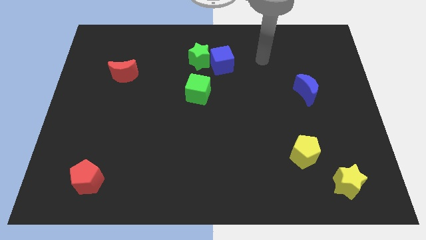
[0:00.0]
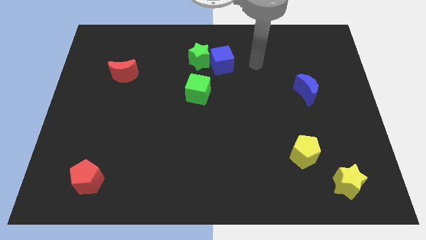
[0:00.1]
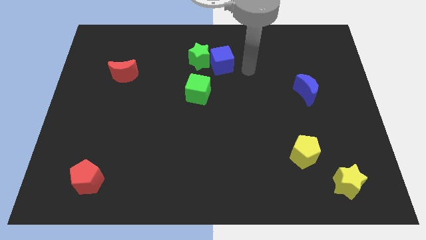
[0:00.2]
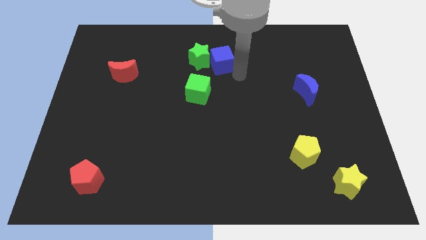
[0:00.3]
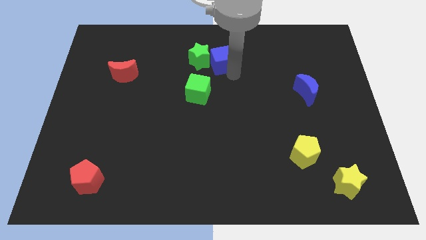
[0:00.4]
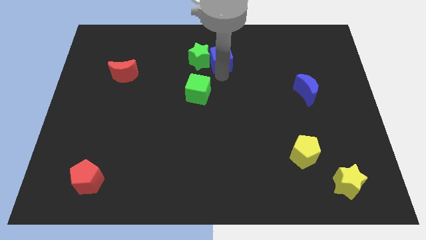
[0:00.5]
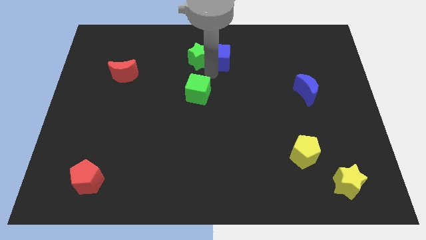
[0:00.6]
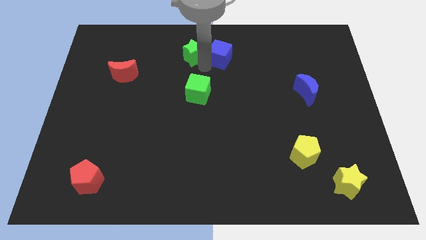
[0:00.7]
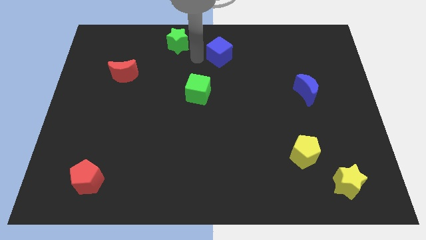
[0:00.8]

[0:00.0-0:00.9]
pull the blue cube apart from the green star

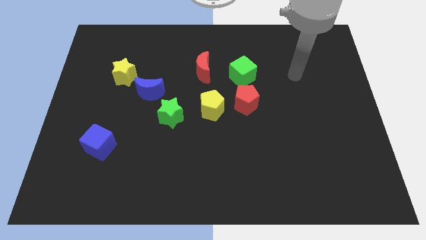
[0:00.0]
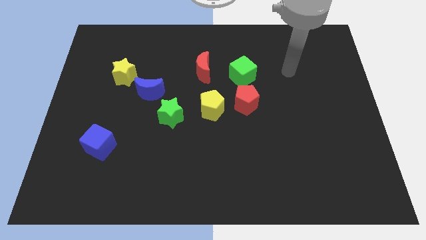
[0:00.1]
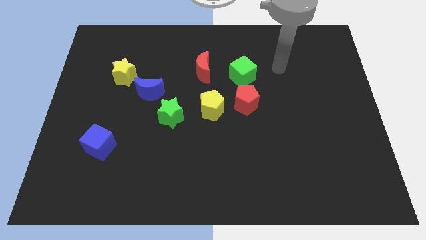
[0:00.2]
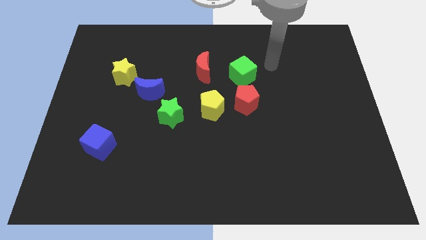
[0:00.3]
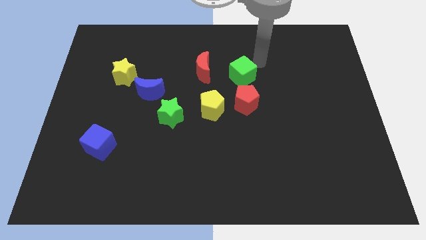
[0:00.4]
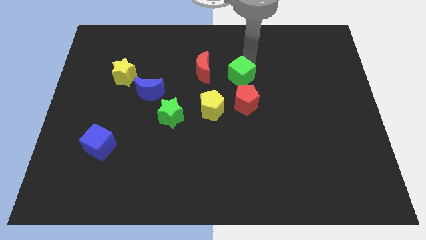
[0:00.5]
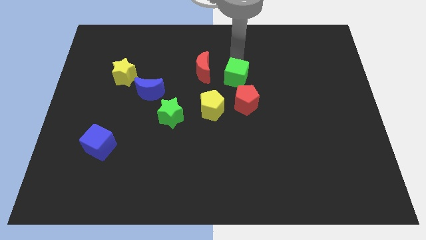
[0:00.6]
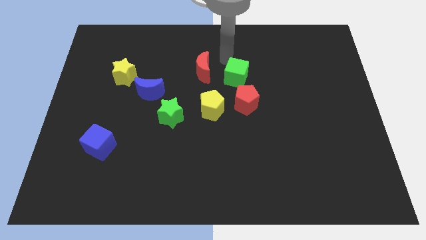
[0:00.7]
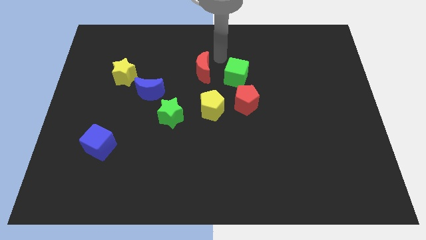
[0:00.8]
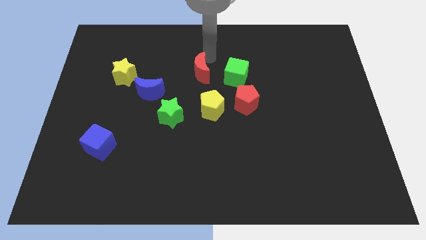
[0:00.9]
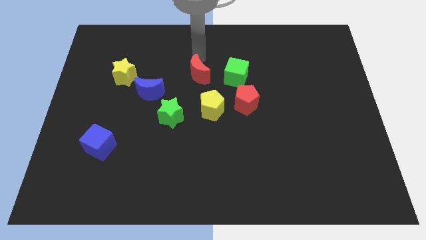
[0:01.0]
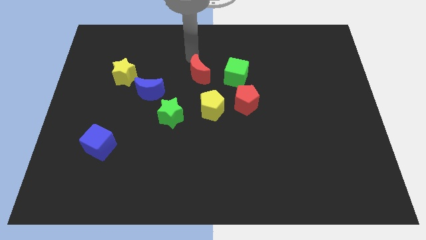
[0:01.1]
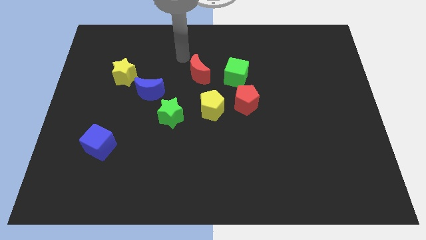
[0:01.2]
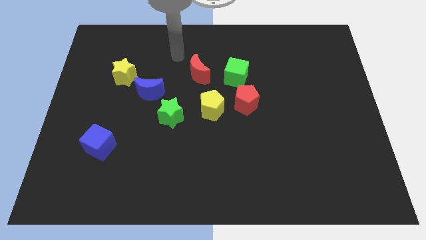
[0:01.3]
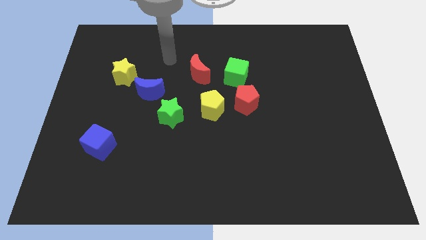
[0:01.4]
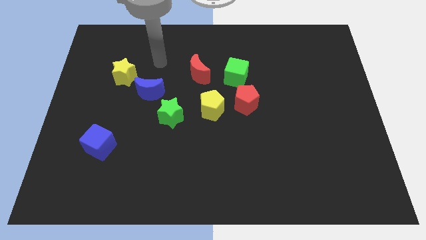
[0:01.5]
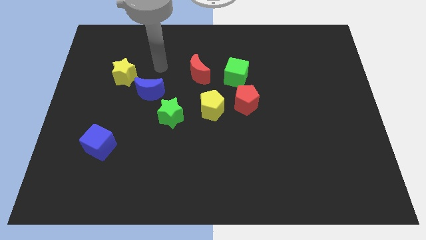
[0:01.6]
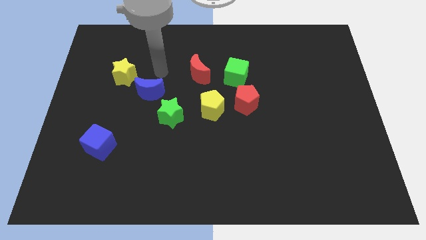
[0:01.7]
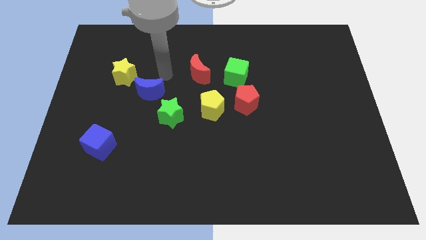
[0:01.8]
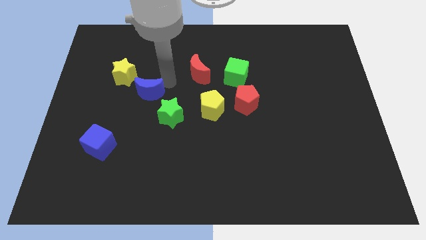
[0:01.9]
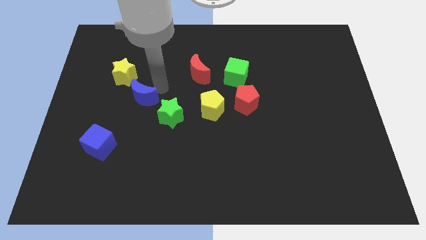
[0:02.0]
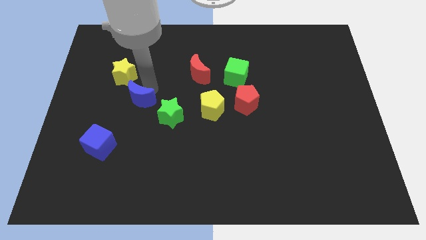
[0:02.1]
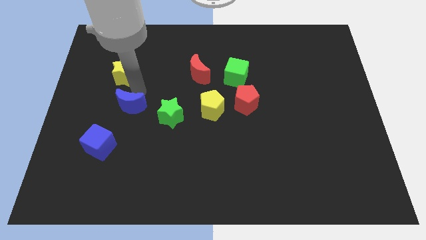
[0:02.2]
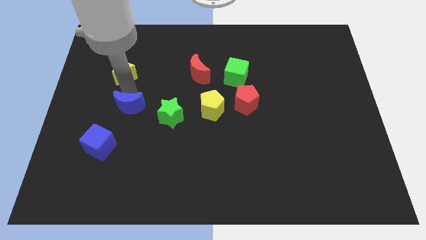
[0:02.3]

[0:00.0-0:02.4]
separate the yellow star from the blue moon

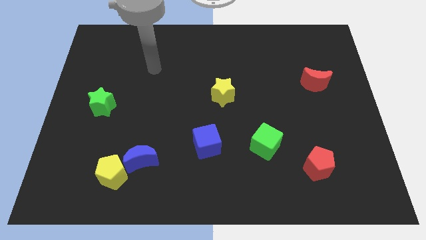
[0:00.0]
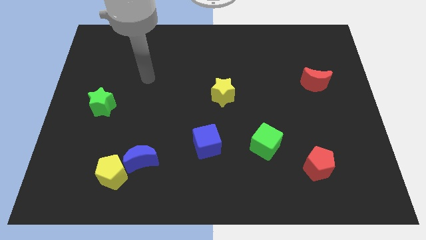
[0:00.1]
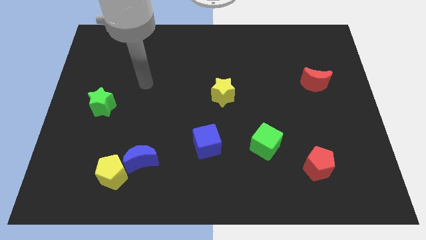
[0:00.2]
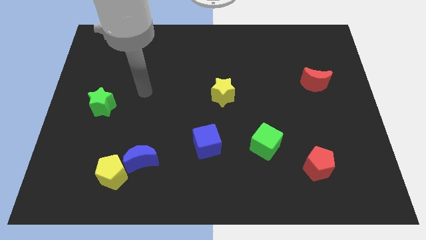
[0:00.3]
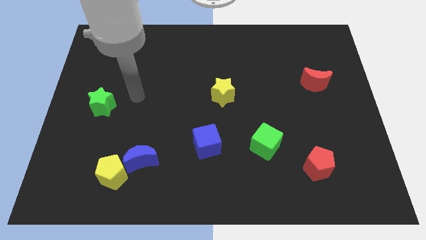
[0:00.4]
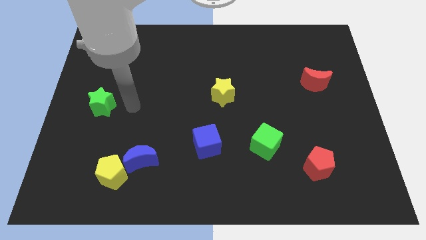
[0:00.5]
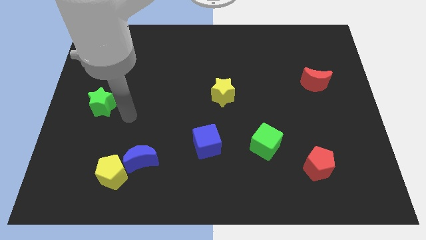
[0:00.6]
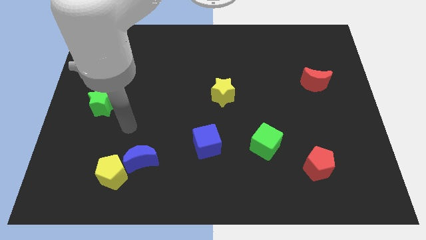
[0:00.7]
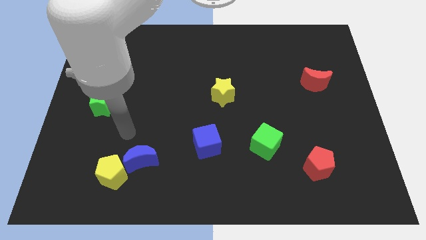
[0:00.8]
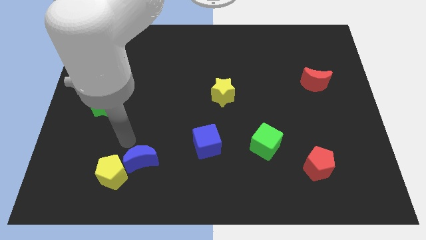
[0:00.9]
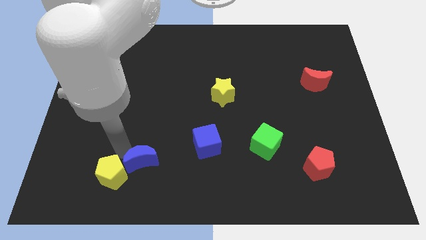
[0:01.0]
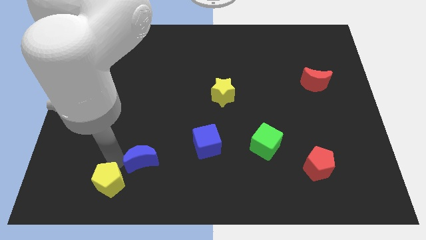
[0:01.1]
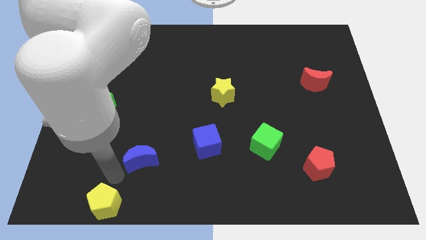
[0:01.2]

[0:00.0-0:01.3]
move the blue moon away from the yellow pentagon

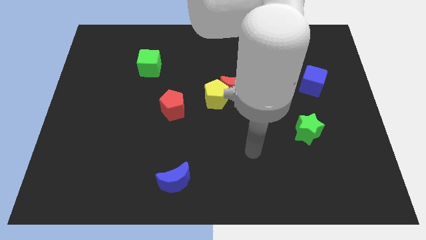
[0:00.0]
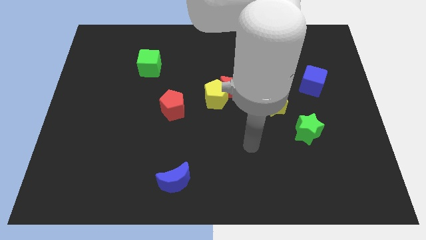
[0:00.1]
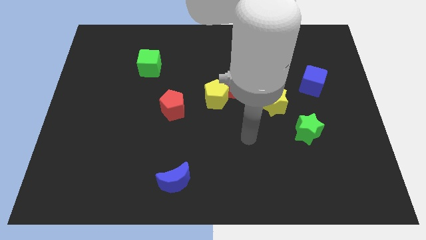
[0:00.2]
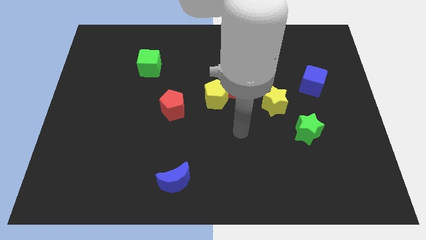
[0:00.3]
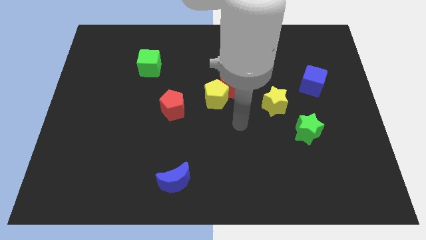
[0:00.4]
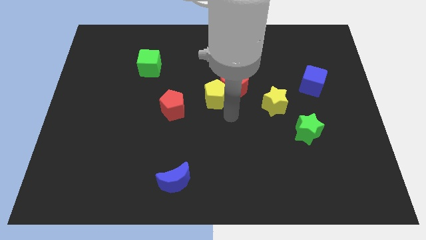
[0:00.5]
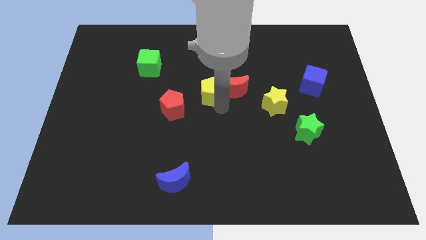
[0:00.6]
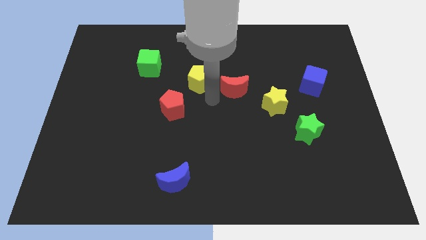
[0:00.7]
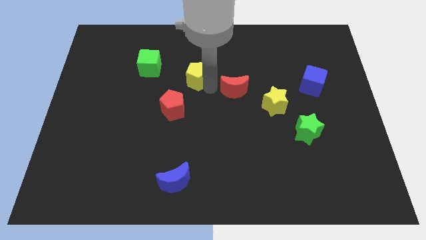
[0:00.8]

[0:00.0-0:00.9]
separate the red moon from the yellow pentagon

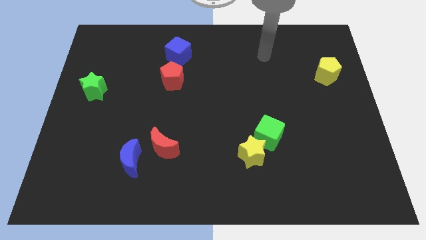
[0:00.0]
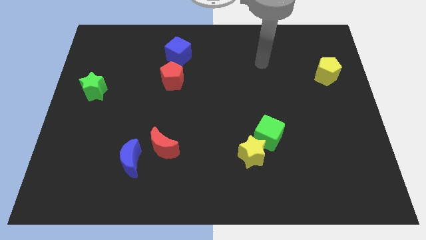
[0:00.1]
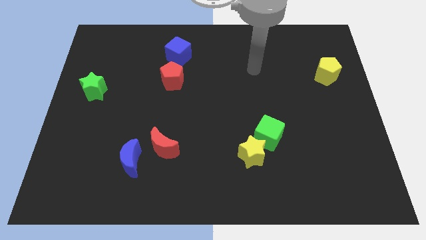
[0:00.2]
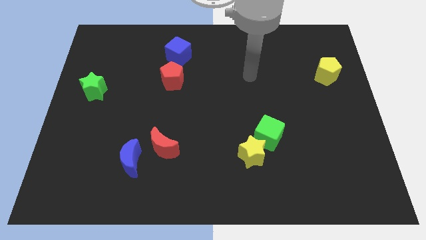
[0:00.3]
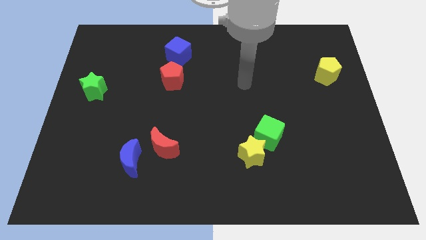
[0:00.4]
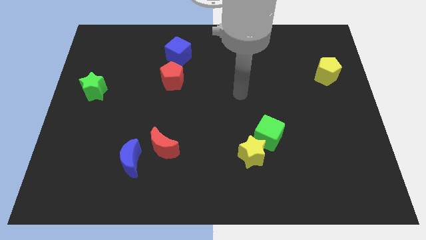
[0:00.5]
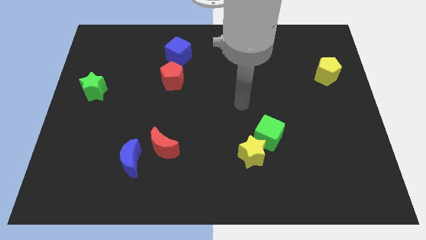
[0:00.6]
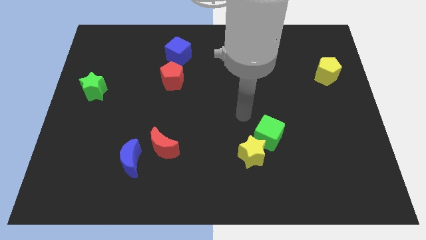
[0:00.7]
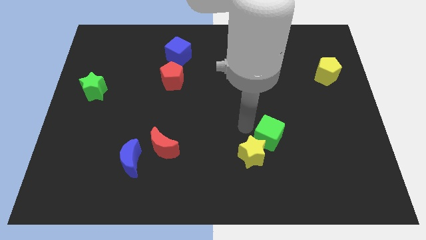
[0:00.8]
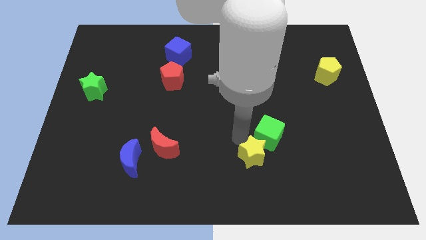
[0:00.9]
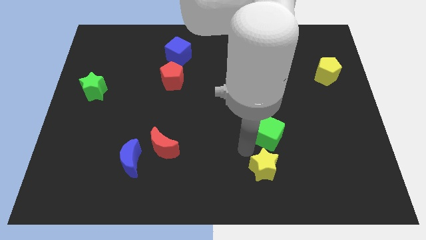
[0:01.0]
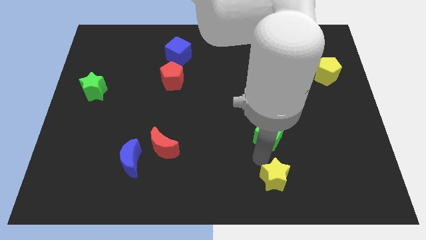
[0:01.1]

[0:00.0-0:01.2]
move the green cube away from the yellow star

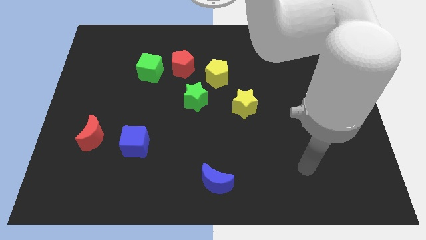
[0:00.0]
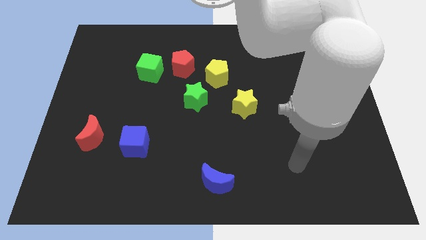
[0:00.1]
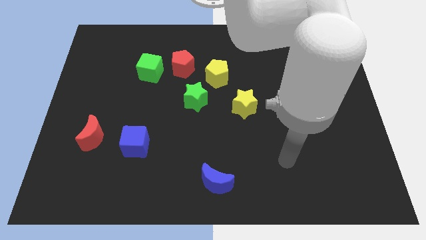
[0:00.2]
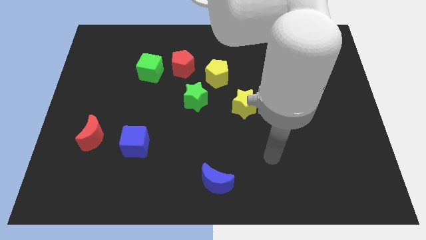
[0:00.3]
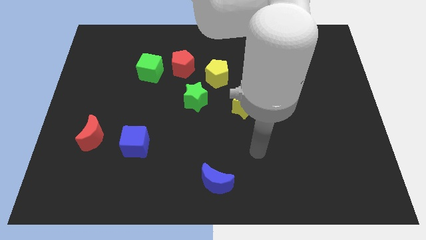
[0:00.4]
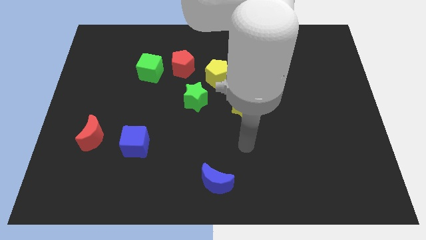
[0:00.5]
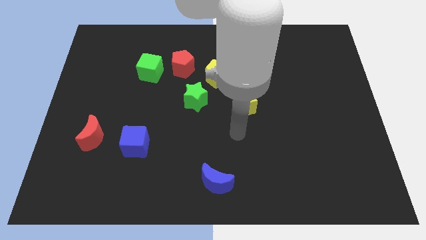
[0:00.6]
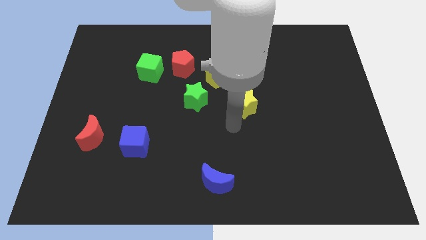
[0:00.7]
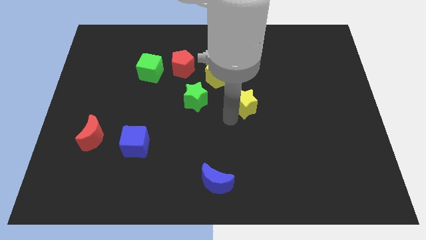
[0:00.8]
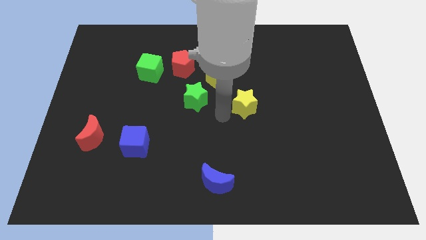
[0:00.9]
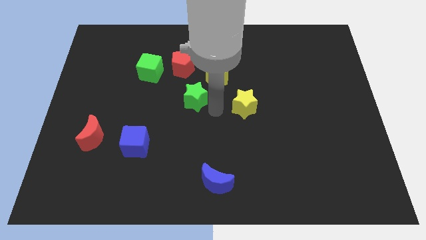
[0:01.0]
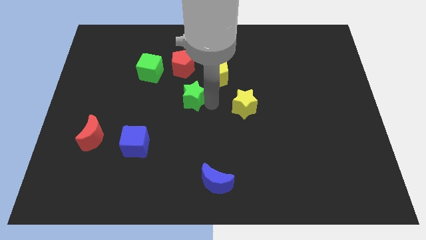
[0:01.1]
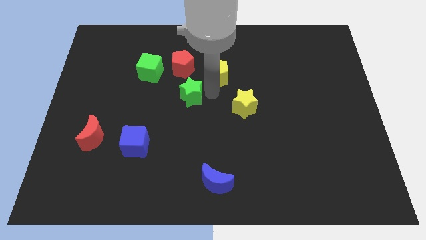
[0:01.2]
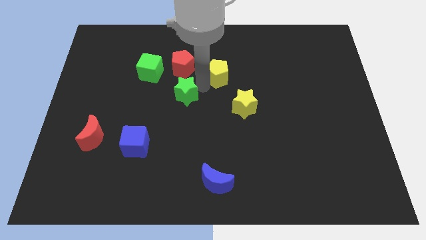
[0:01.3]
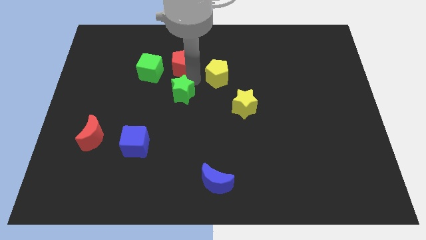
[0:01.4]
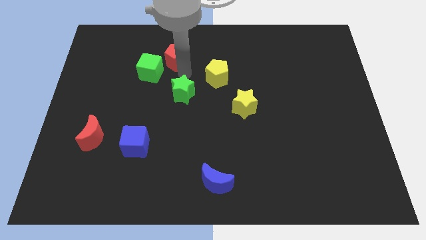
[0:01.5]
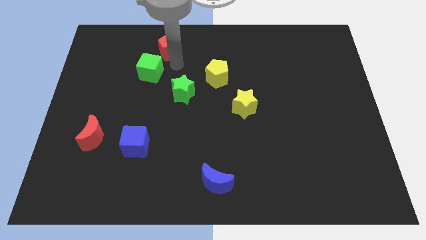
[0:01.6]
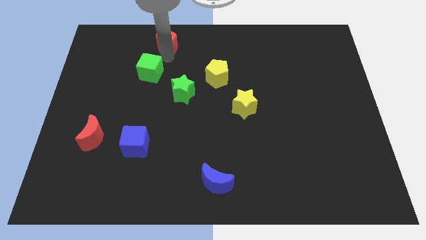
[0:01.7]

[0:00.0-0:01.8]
pull the green cube apart from the red pentagon

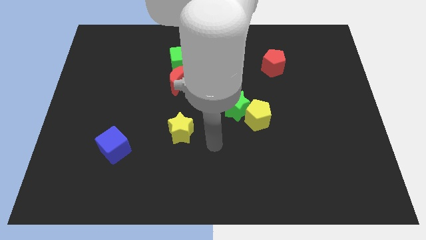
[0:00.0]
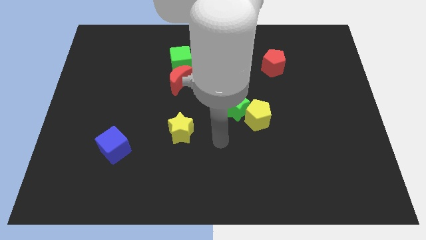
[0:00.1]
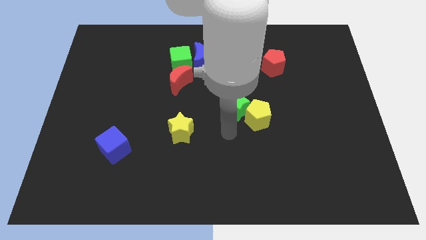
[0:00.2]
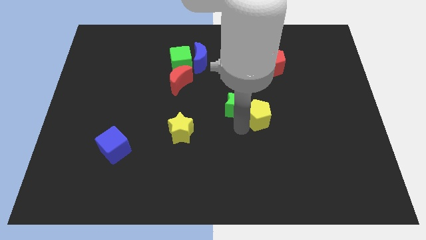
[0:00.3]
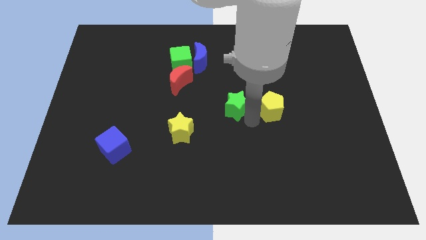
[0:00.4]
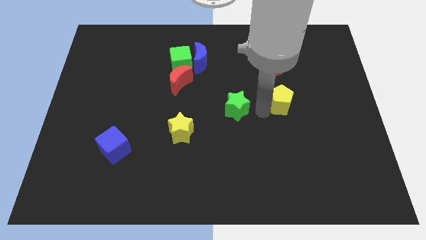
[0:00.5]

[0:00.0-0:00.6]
separate the green star from the yellow pentagon

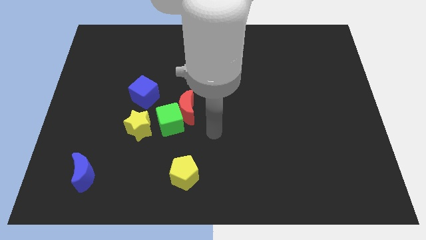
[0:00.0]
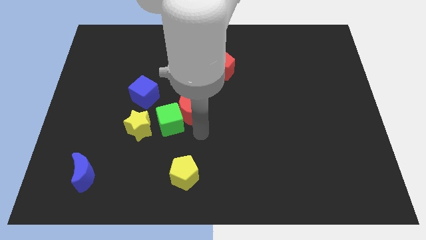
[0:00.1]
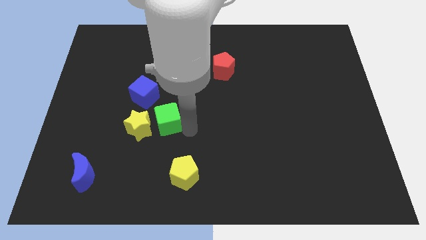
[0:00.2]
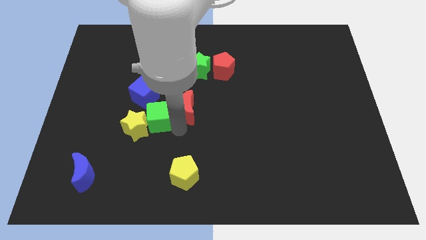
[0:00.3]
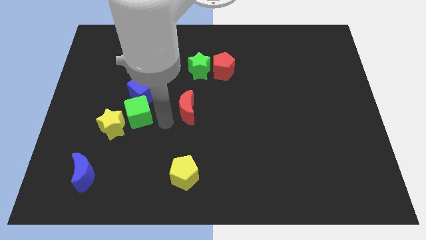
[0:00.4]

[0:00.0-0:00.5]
separate the red moon from the green cube
